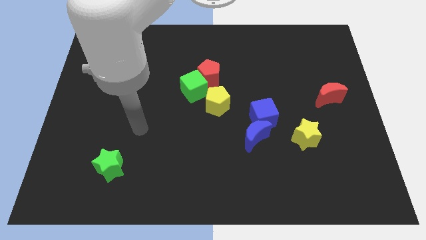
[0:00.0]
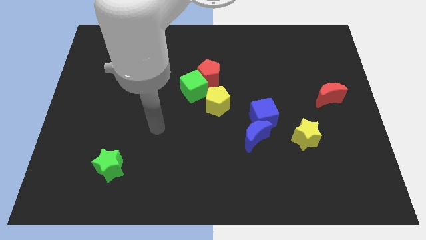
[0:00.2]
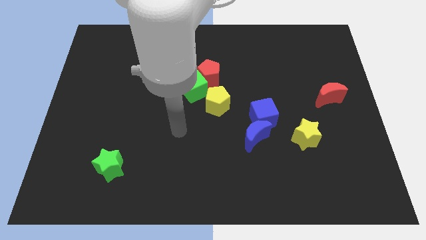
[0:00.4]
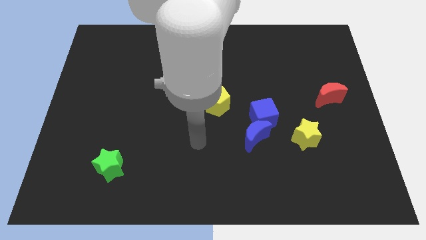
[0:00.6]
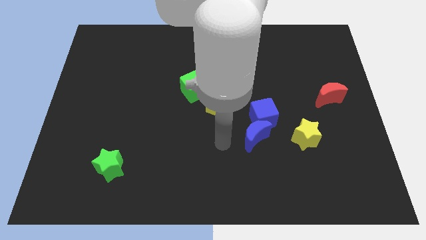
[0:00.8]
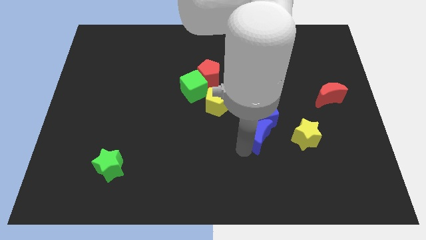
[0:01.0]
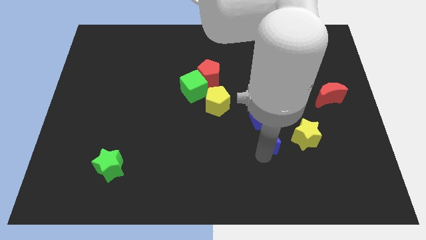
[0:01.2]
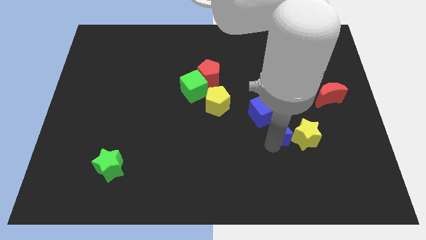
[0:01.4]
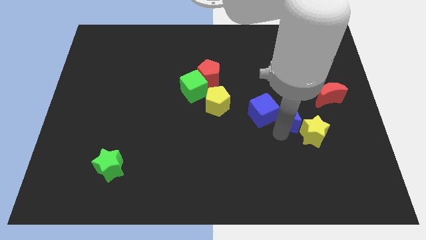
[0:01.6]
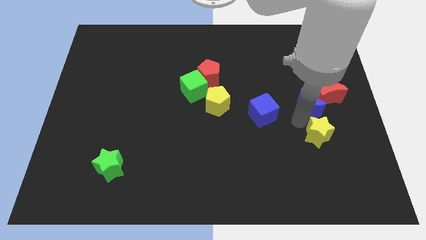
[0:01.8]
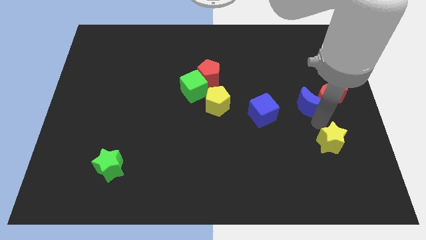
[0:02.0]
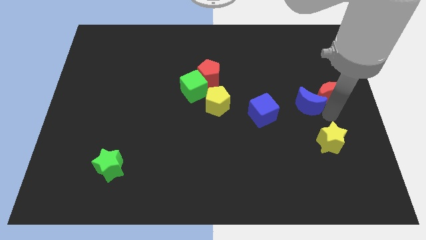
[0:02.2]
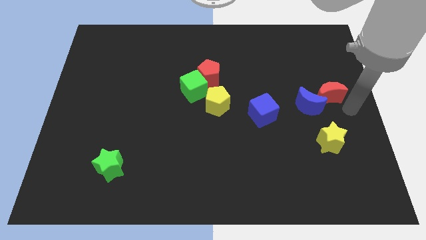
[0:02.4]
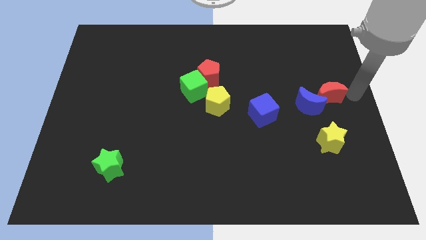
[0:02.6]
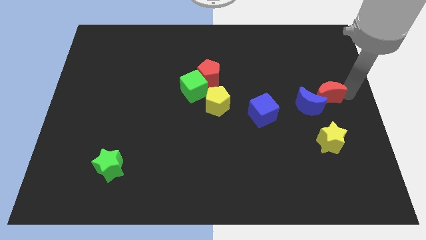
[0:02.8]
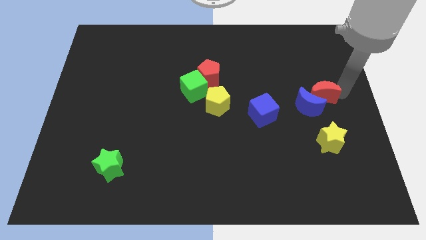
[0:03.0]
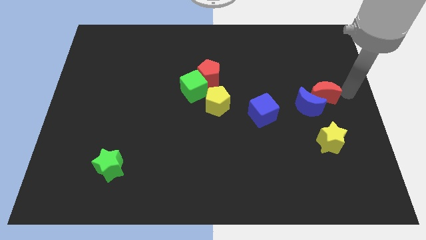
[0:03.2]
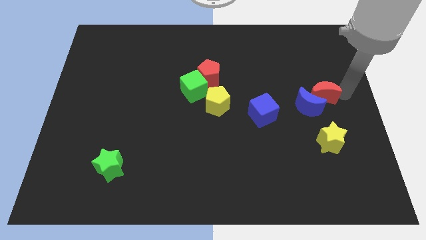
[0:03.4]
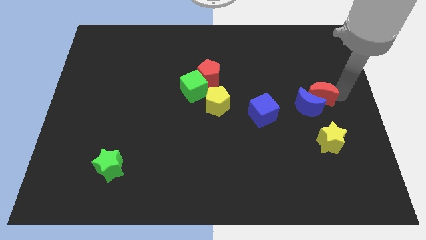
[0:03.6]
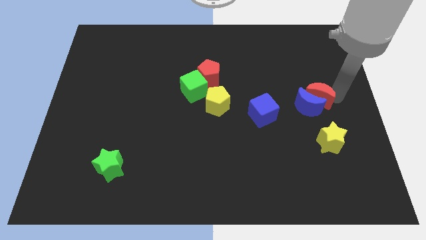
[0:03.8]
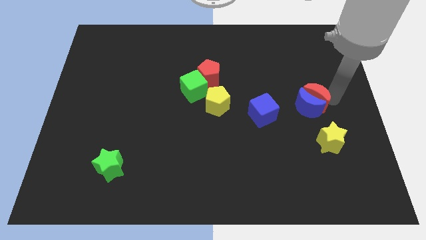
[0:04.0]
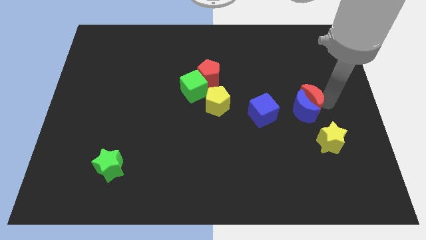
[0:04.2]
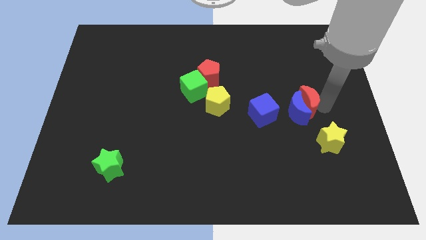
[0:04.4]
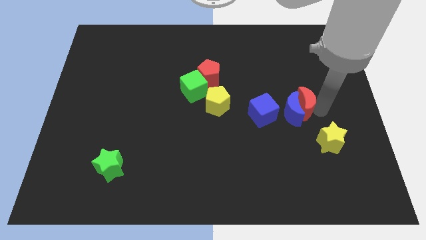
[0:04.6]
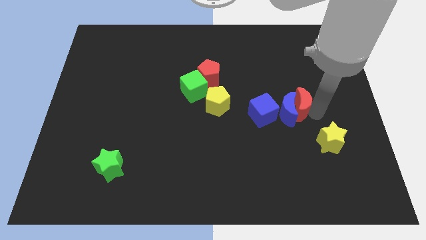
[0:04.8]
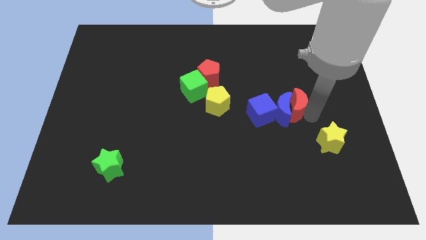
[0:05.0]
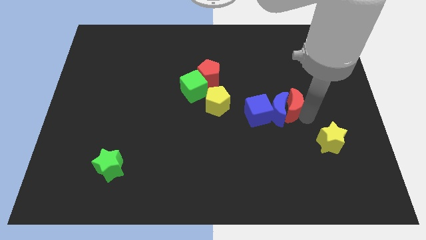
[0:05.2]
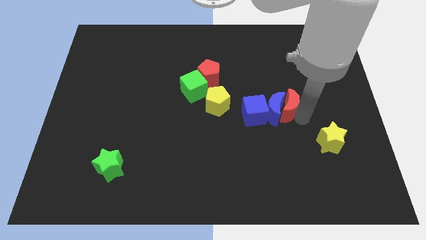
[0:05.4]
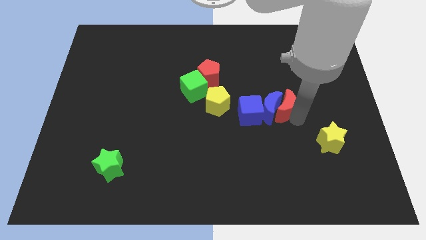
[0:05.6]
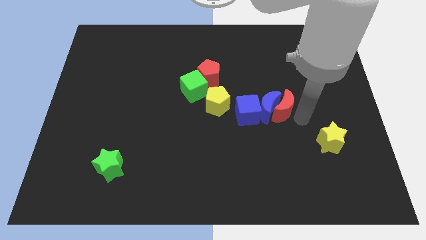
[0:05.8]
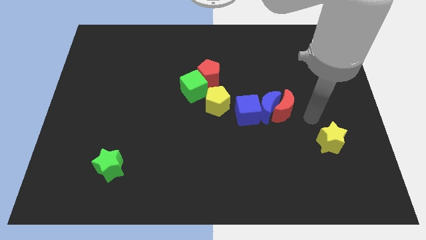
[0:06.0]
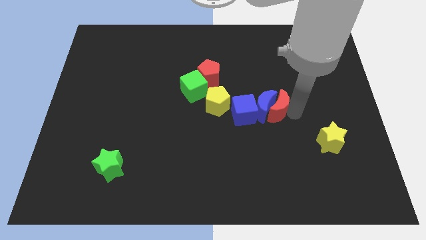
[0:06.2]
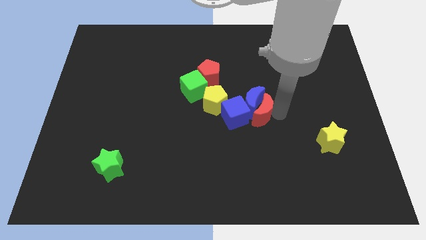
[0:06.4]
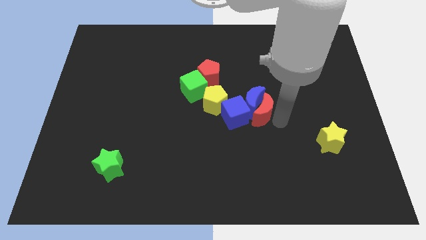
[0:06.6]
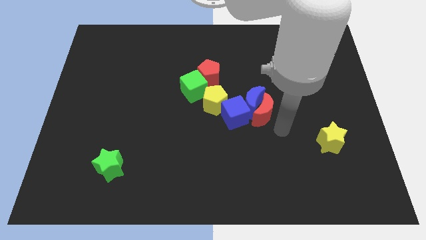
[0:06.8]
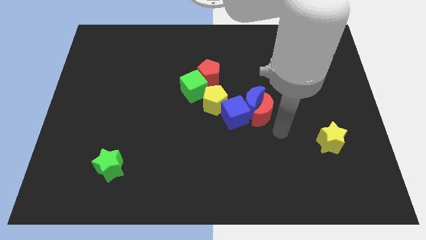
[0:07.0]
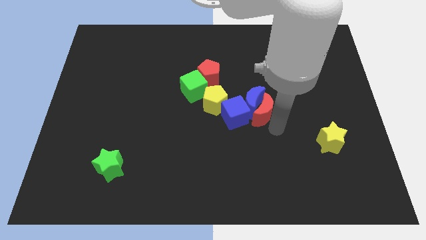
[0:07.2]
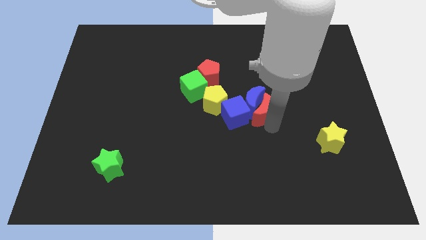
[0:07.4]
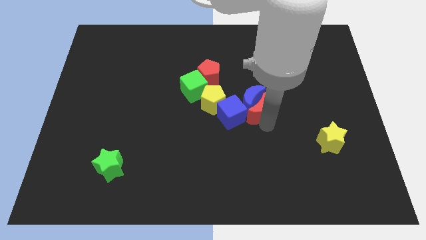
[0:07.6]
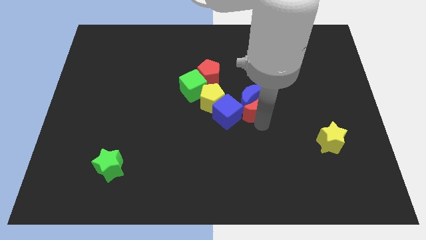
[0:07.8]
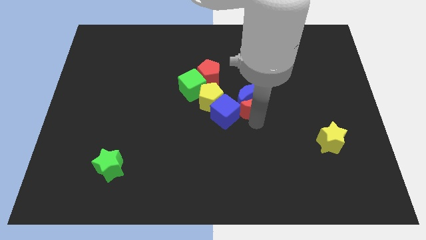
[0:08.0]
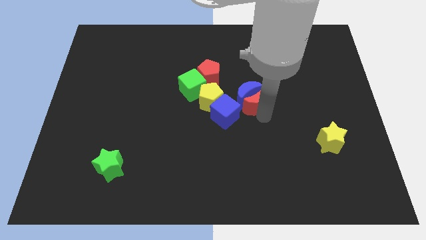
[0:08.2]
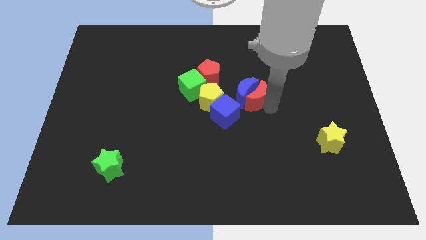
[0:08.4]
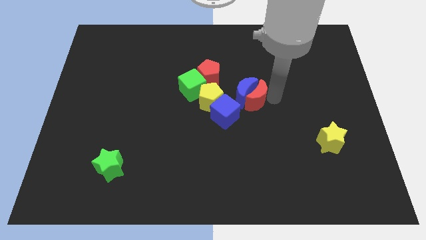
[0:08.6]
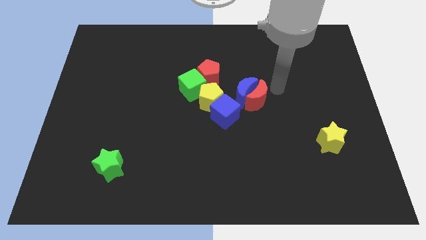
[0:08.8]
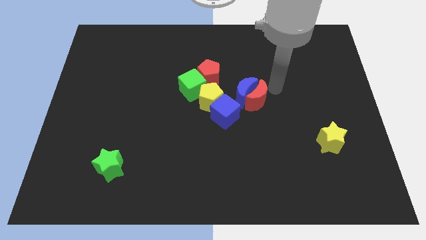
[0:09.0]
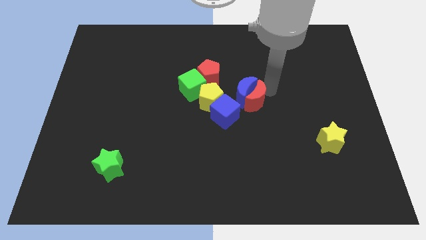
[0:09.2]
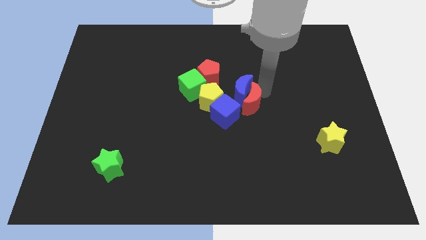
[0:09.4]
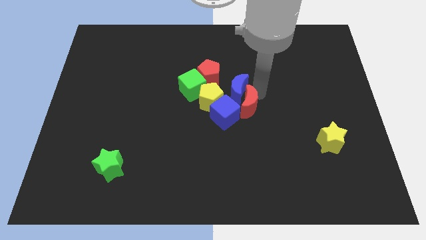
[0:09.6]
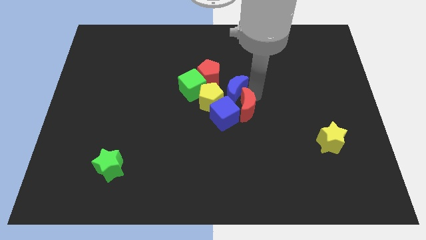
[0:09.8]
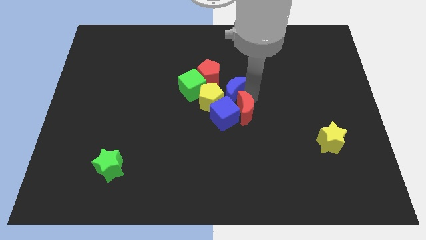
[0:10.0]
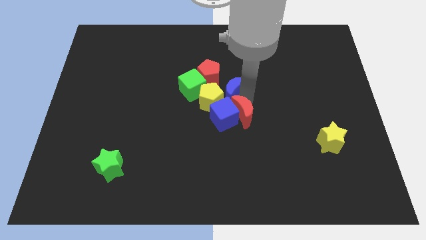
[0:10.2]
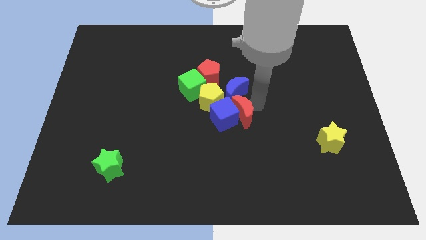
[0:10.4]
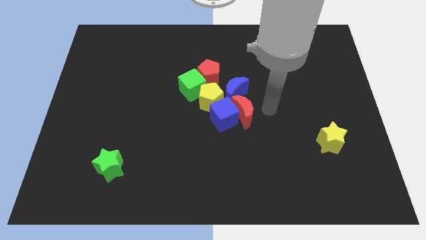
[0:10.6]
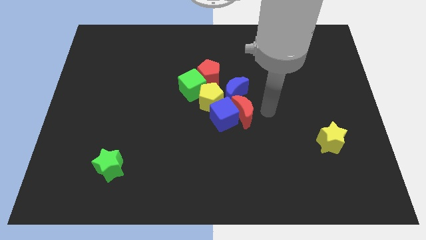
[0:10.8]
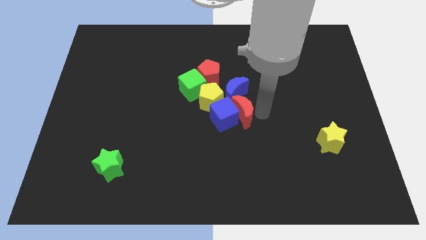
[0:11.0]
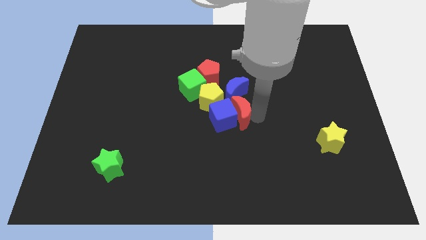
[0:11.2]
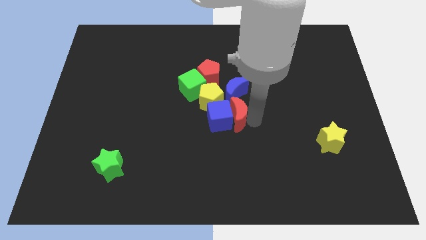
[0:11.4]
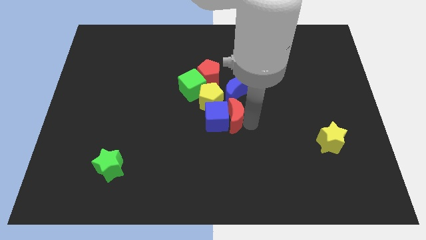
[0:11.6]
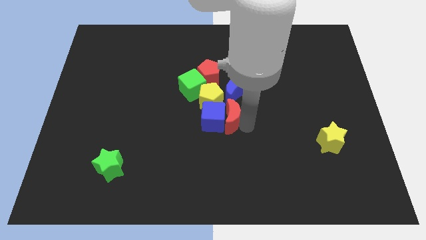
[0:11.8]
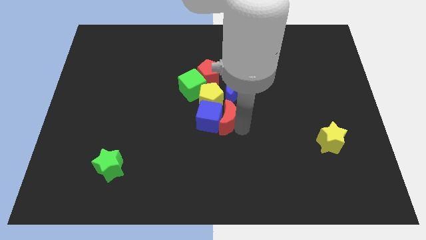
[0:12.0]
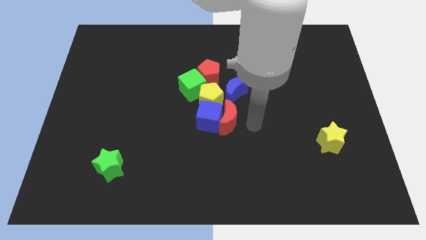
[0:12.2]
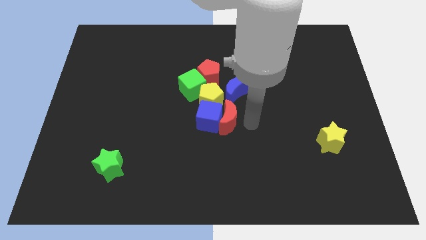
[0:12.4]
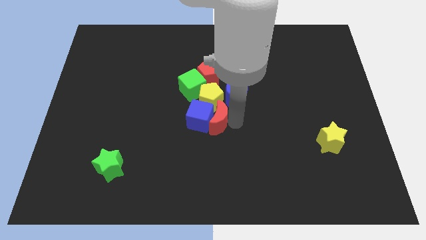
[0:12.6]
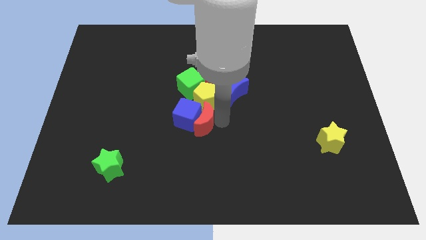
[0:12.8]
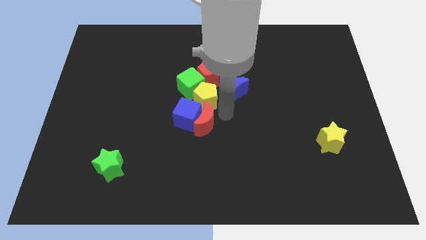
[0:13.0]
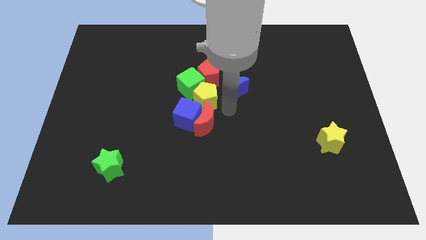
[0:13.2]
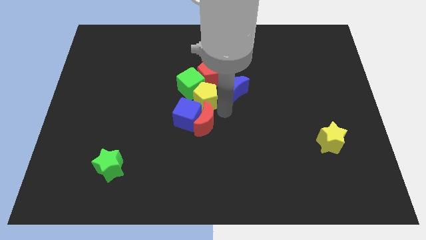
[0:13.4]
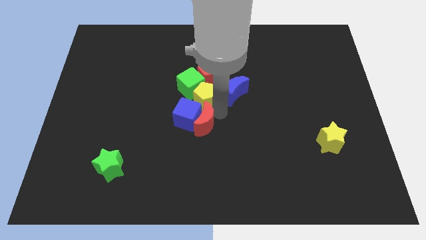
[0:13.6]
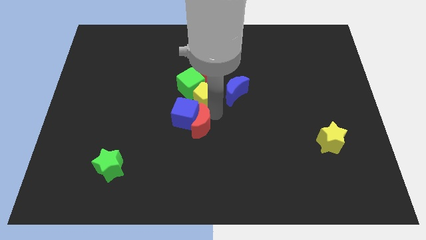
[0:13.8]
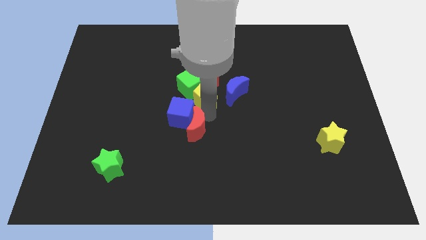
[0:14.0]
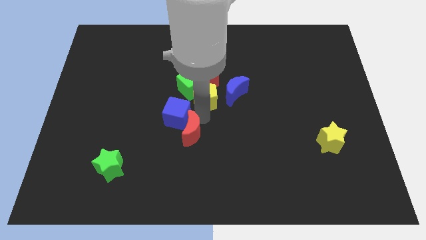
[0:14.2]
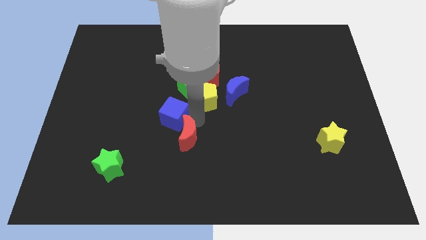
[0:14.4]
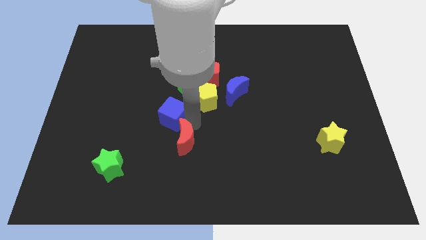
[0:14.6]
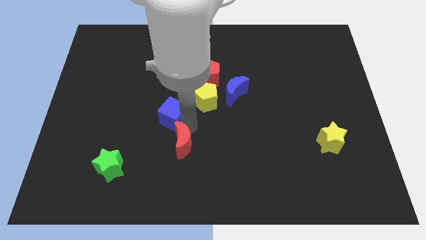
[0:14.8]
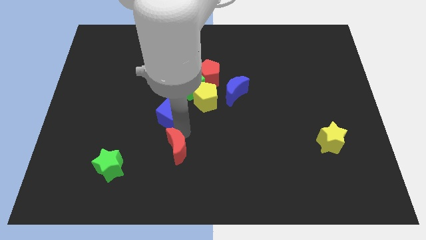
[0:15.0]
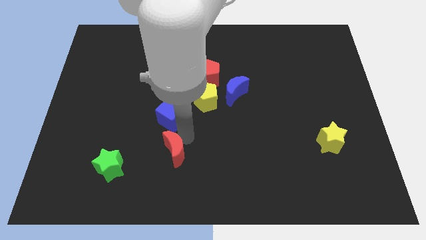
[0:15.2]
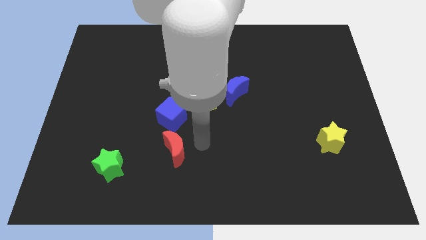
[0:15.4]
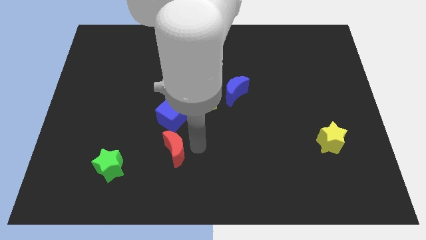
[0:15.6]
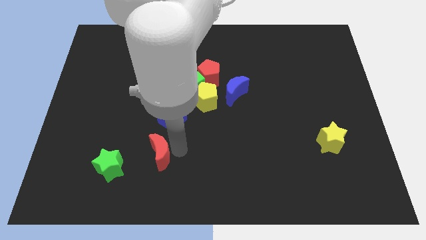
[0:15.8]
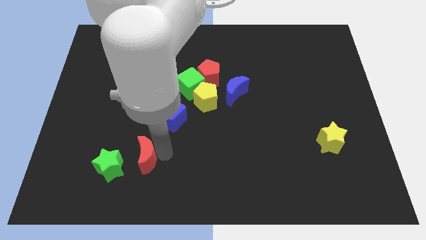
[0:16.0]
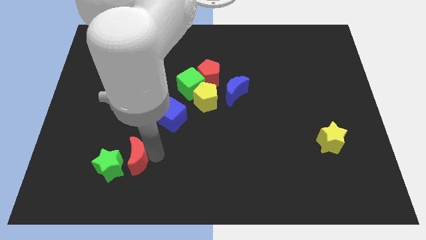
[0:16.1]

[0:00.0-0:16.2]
push the red moon close to the green star
